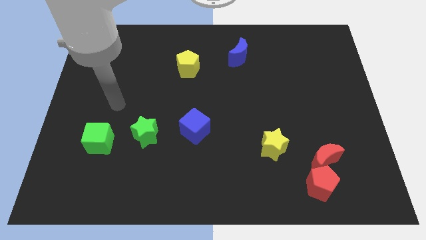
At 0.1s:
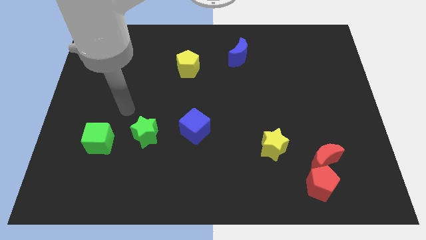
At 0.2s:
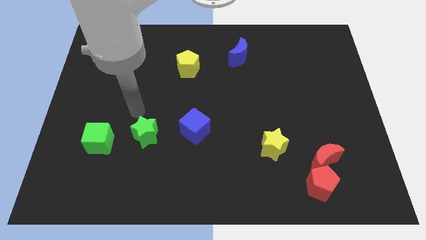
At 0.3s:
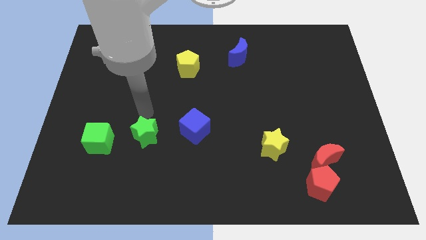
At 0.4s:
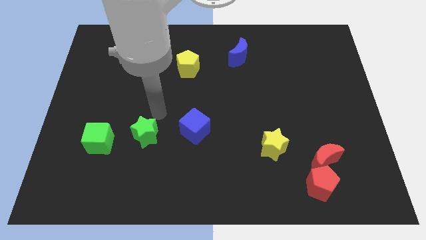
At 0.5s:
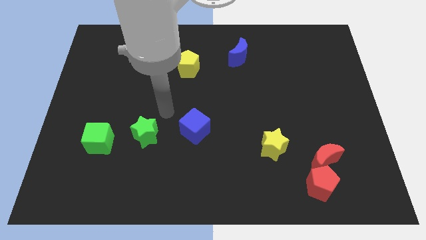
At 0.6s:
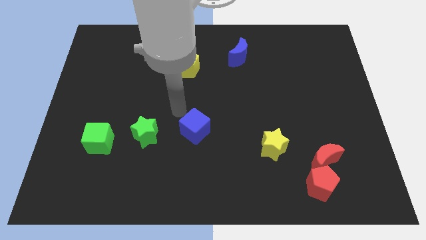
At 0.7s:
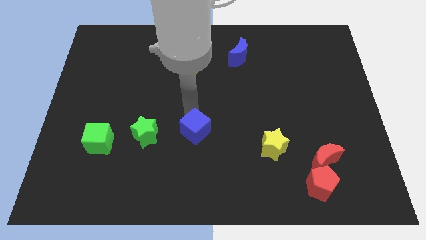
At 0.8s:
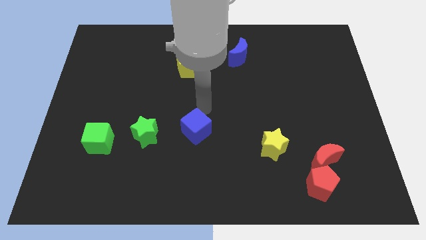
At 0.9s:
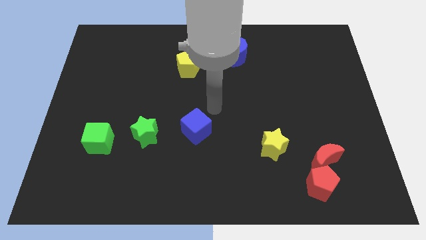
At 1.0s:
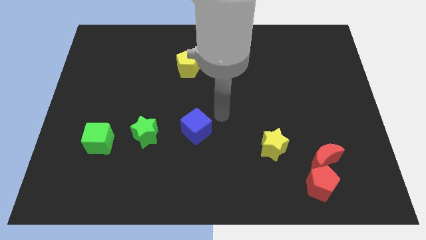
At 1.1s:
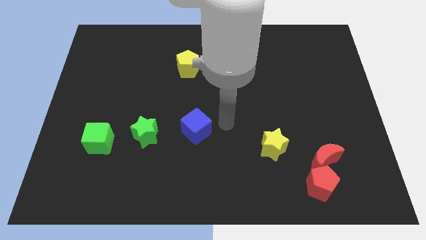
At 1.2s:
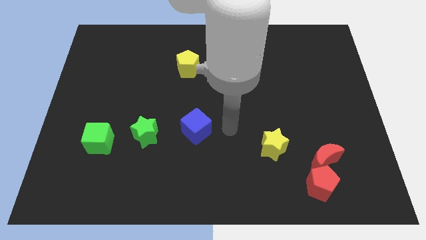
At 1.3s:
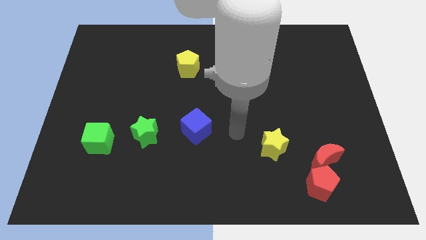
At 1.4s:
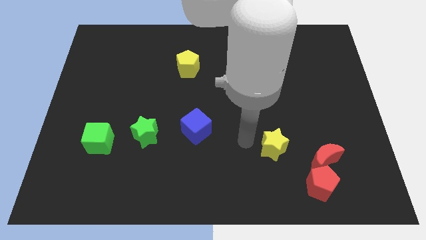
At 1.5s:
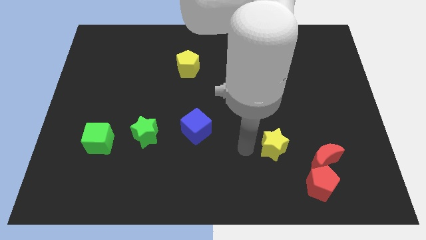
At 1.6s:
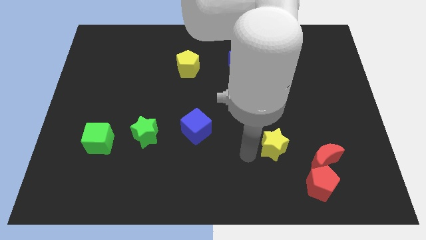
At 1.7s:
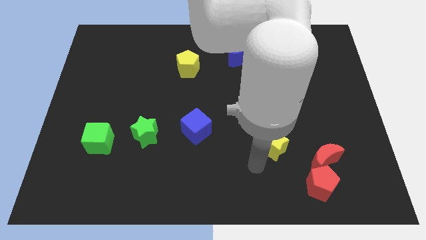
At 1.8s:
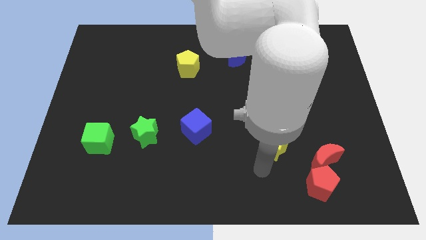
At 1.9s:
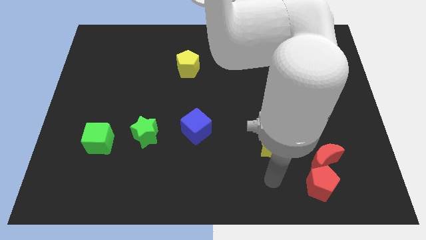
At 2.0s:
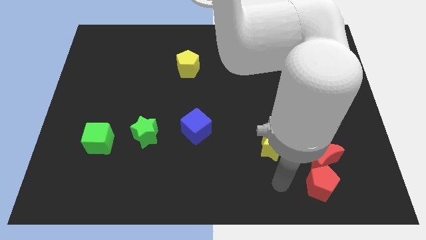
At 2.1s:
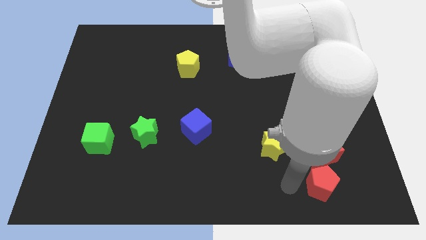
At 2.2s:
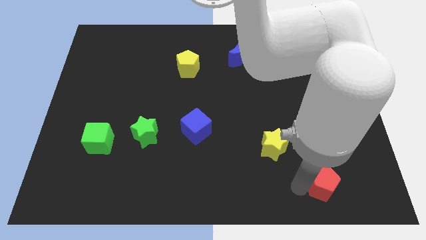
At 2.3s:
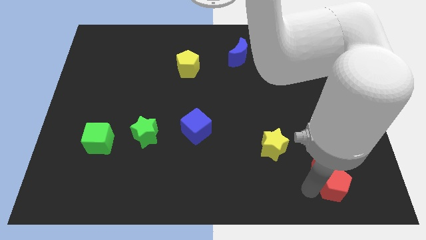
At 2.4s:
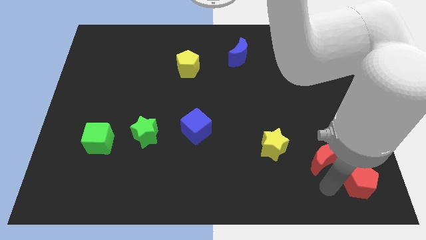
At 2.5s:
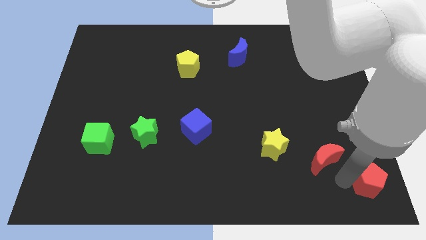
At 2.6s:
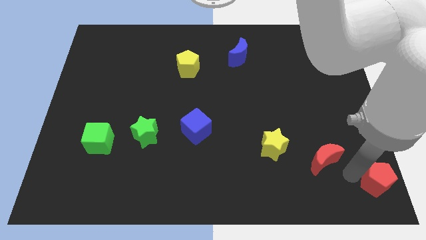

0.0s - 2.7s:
separate the red moon from the red pentagon

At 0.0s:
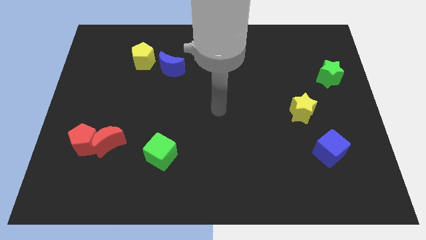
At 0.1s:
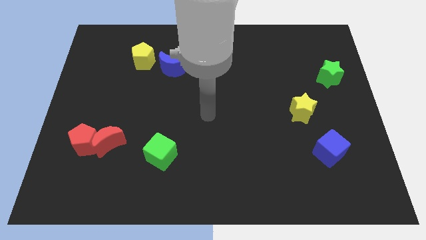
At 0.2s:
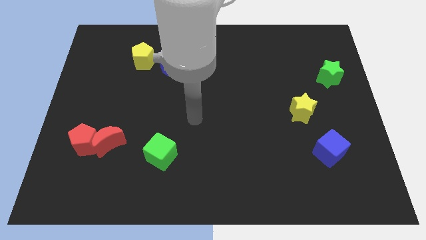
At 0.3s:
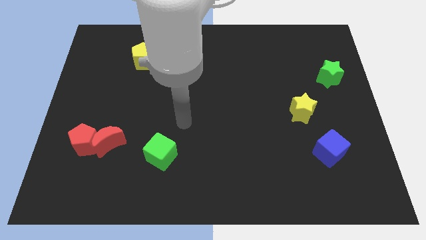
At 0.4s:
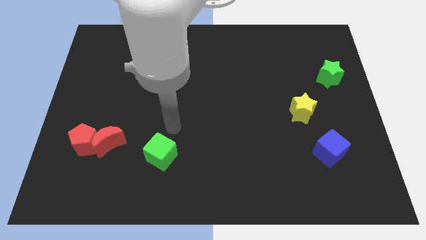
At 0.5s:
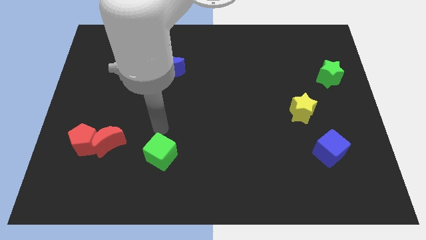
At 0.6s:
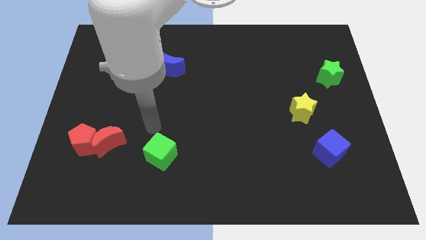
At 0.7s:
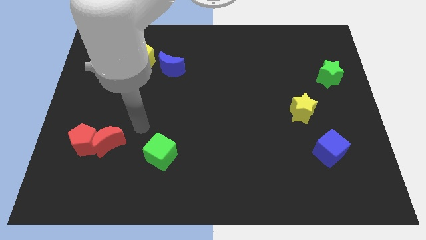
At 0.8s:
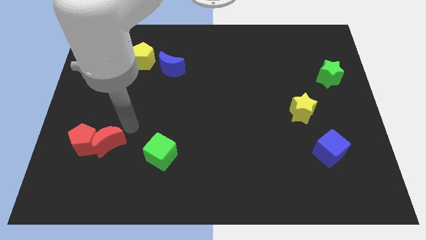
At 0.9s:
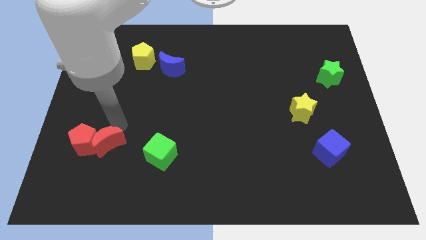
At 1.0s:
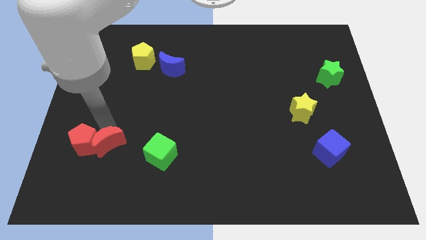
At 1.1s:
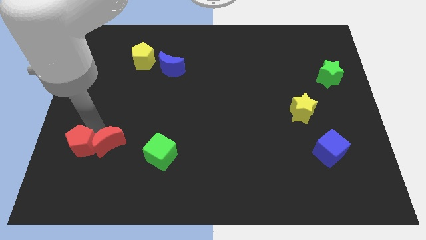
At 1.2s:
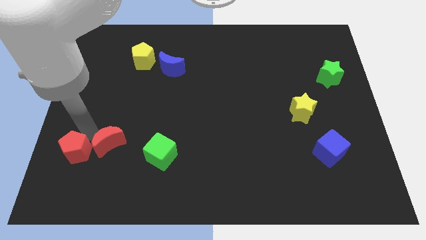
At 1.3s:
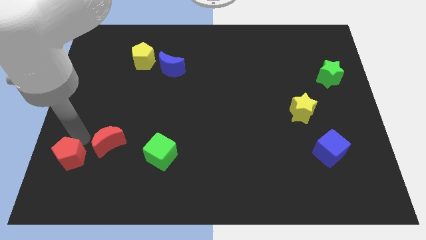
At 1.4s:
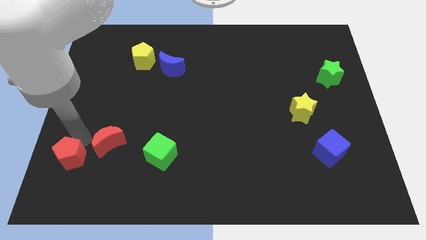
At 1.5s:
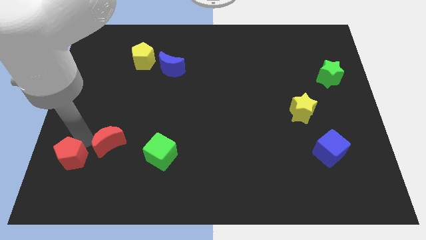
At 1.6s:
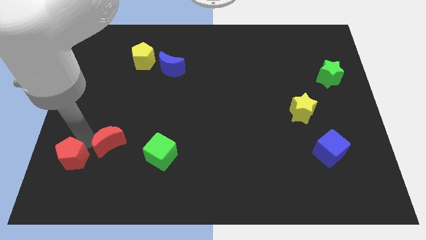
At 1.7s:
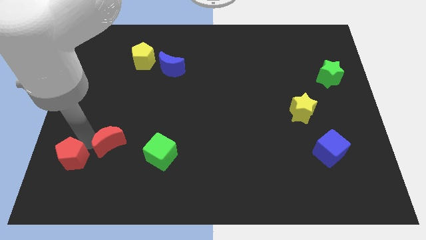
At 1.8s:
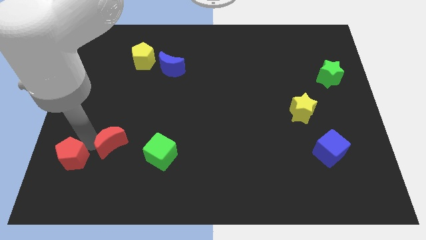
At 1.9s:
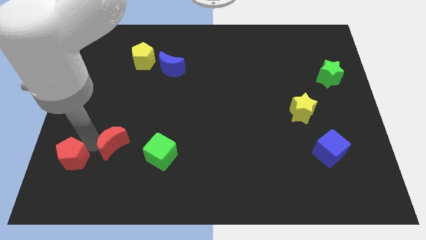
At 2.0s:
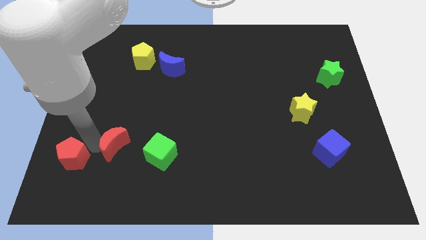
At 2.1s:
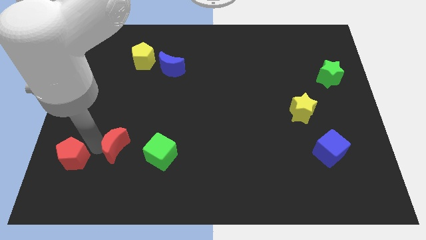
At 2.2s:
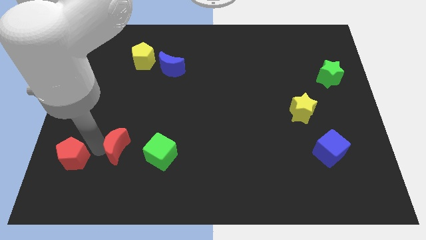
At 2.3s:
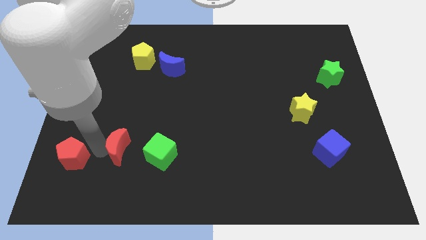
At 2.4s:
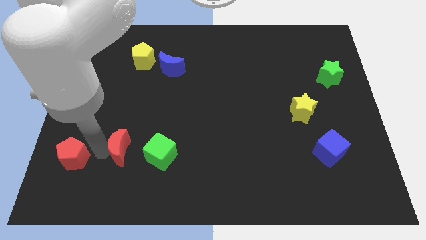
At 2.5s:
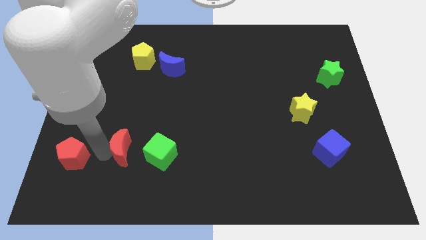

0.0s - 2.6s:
pull the red moon apart from the red pentagon

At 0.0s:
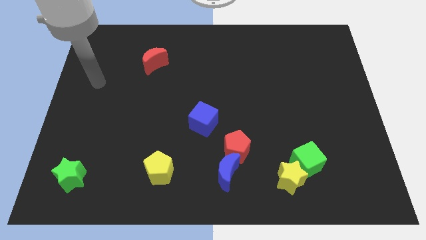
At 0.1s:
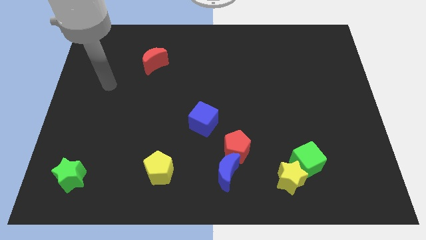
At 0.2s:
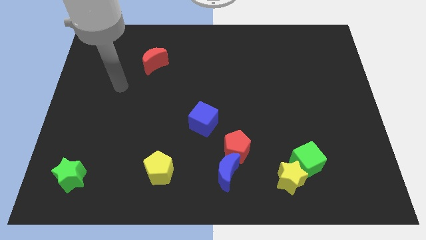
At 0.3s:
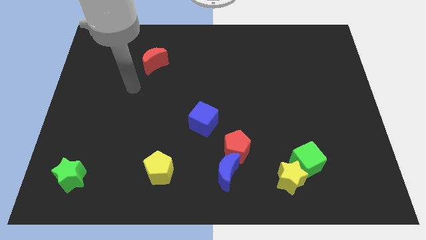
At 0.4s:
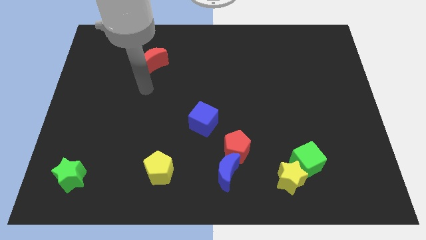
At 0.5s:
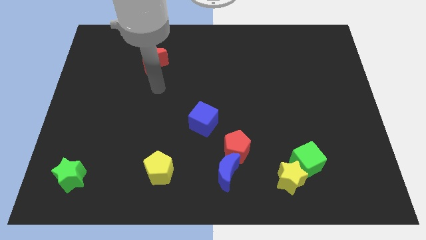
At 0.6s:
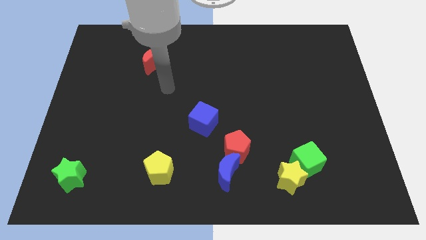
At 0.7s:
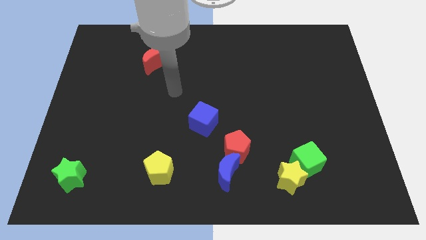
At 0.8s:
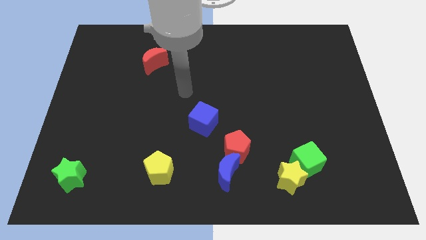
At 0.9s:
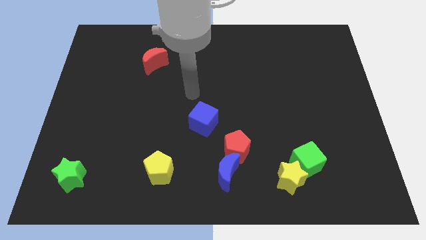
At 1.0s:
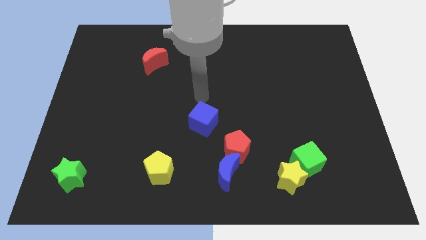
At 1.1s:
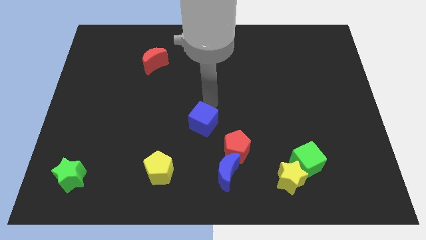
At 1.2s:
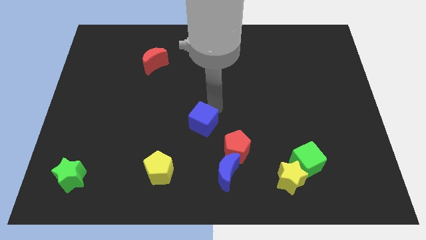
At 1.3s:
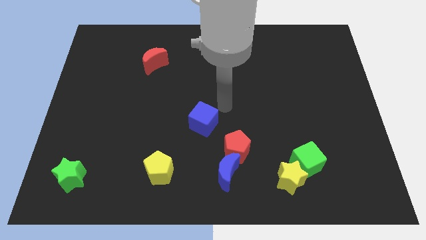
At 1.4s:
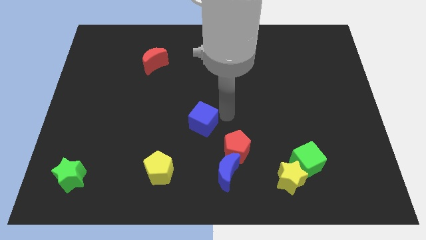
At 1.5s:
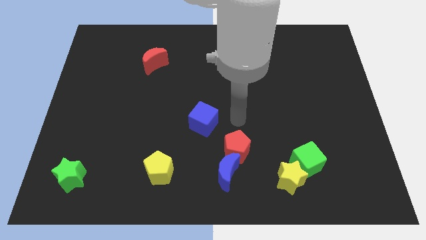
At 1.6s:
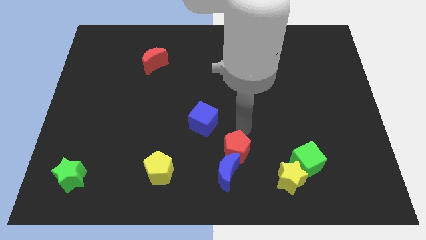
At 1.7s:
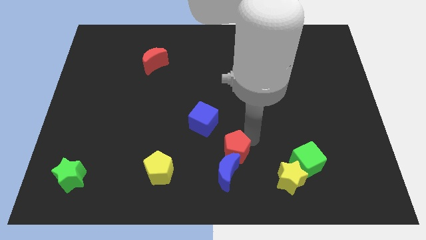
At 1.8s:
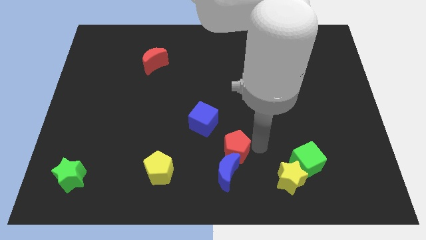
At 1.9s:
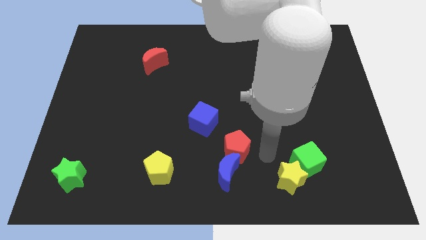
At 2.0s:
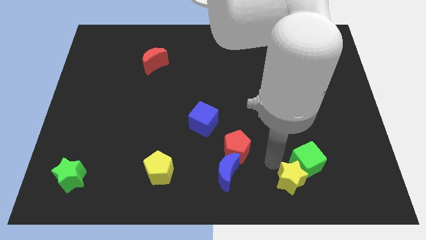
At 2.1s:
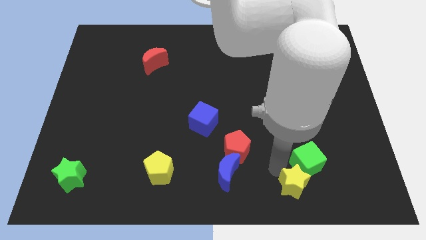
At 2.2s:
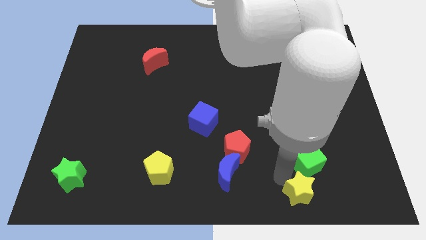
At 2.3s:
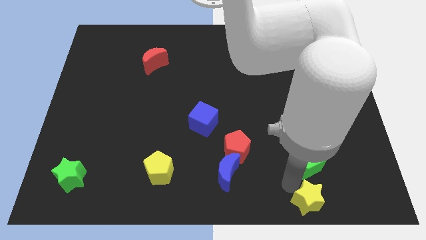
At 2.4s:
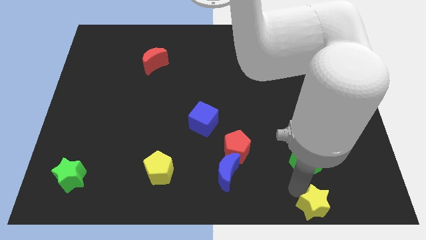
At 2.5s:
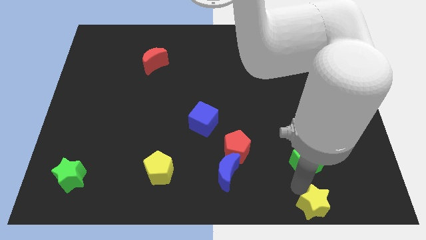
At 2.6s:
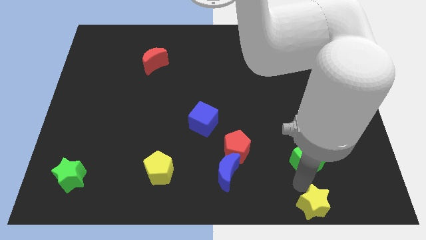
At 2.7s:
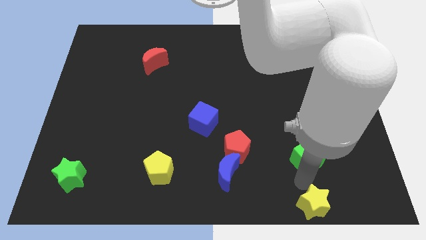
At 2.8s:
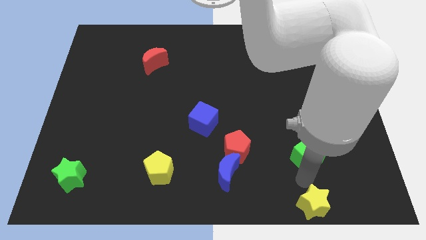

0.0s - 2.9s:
move the green cube away from the yellow star

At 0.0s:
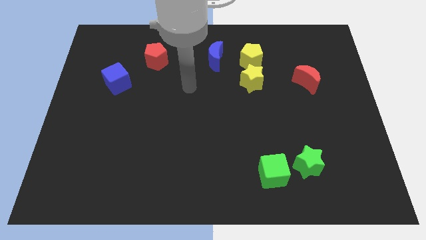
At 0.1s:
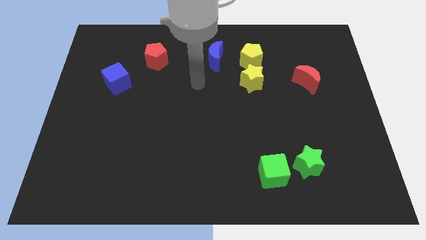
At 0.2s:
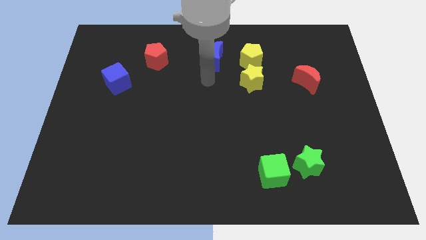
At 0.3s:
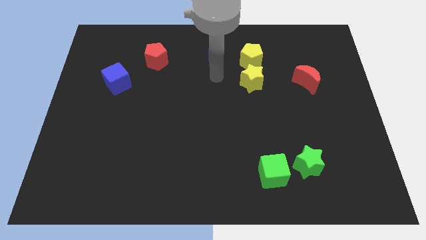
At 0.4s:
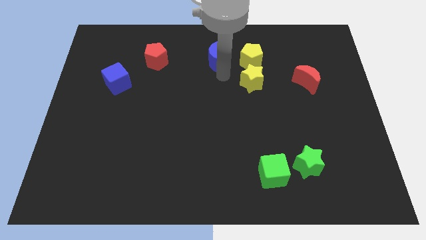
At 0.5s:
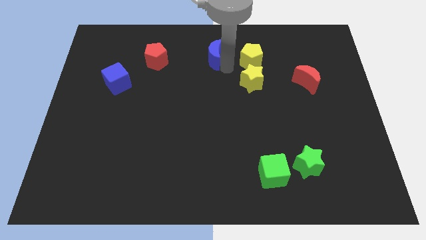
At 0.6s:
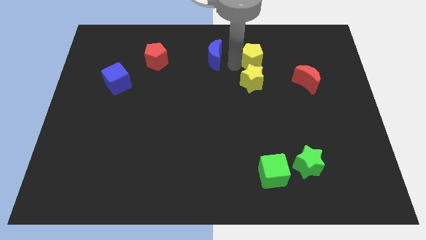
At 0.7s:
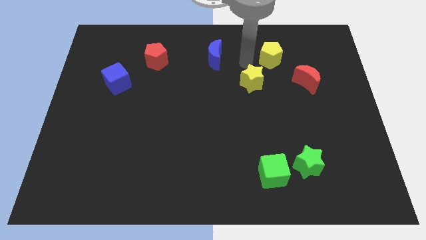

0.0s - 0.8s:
pull the yellow star apart from the yellow pentagon

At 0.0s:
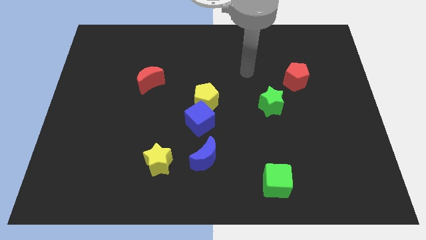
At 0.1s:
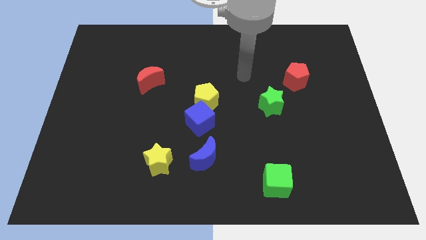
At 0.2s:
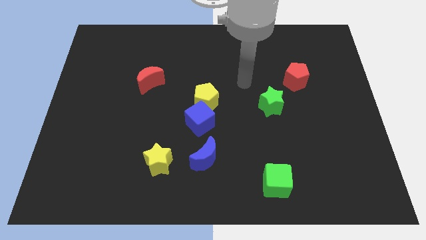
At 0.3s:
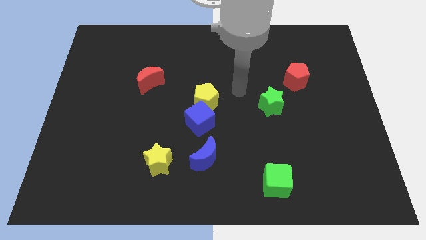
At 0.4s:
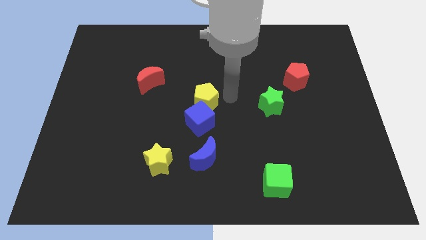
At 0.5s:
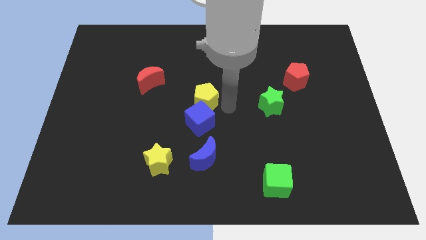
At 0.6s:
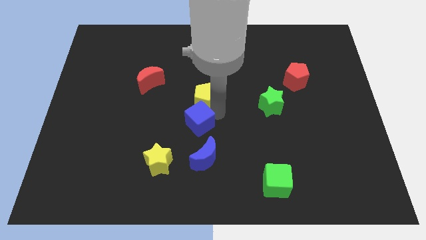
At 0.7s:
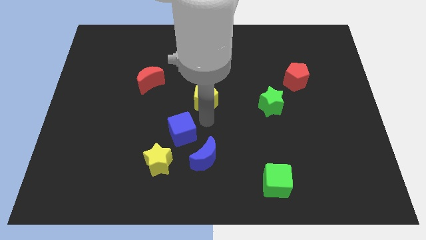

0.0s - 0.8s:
separate the yellow pentagon from the blue cube
